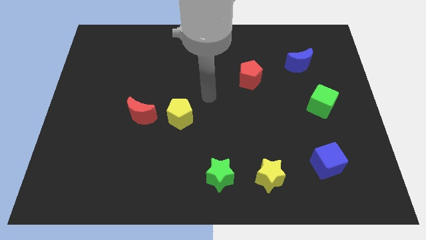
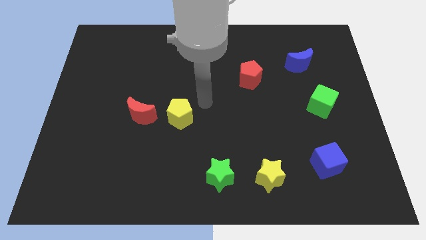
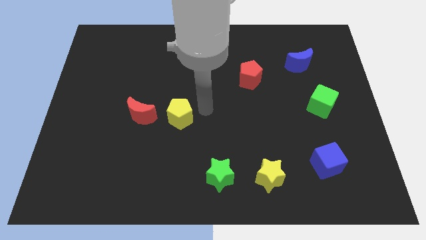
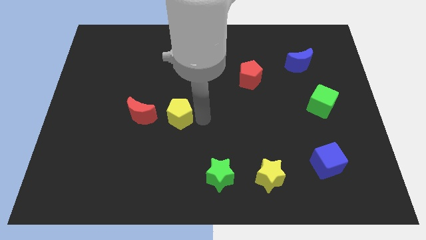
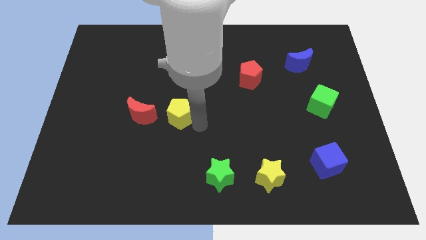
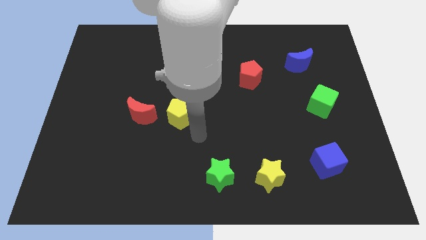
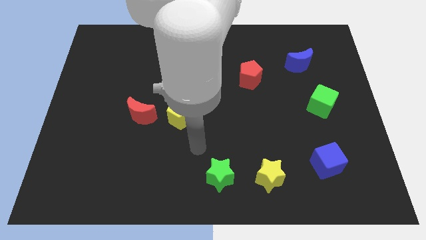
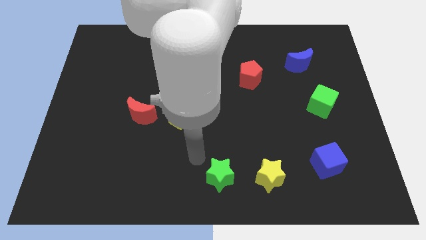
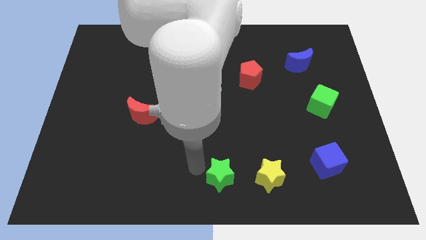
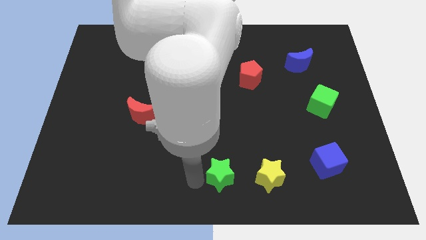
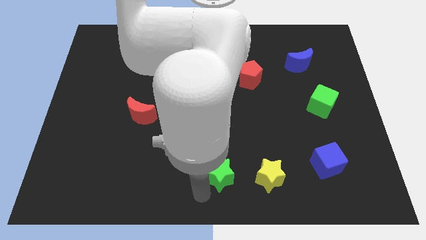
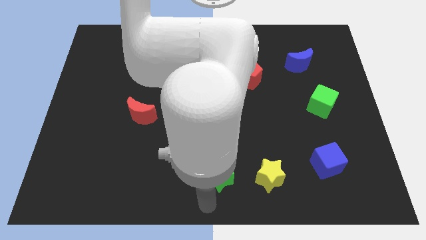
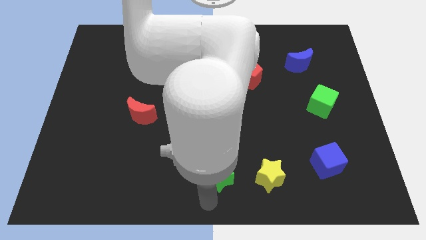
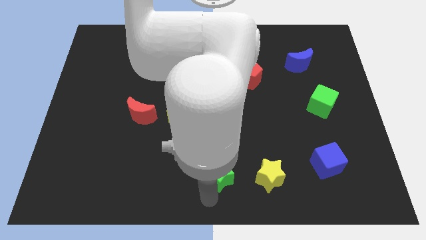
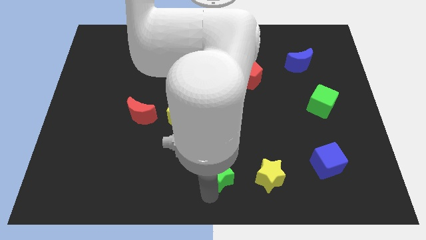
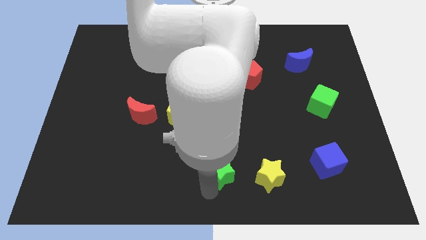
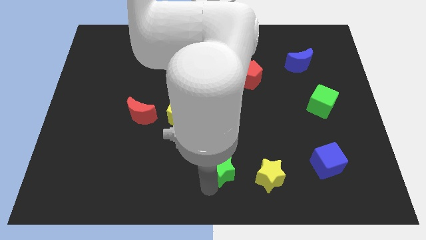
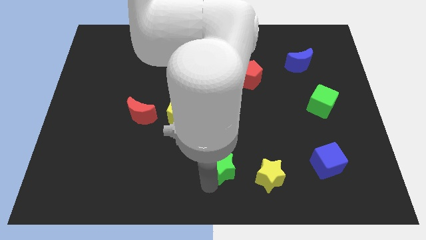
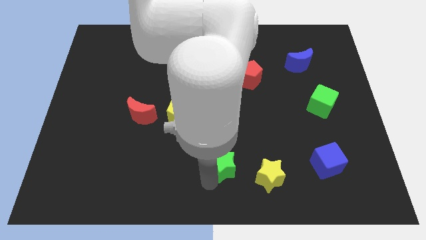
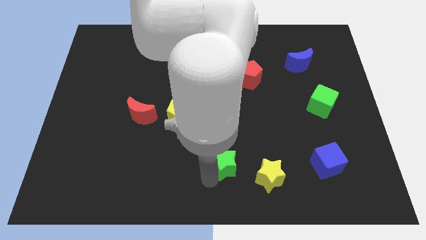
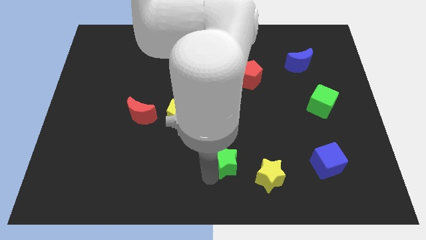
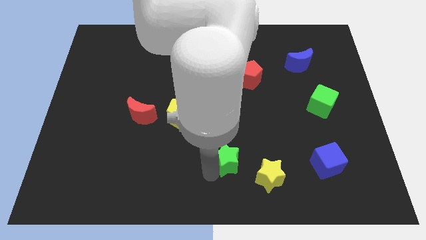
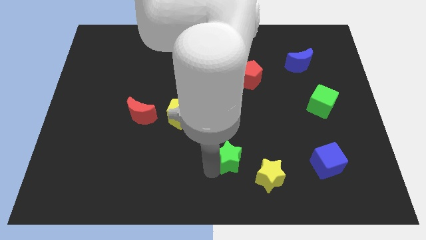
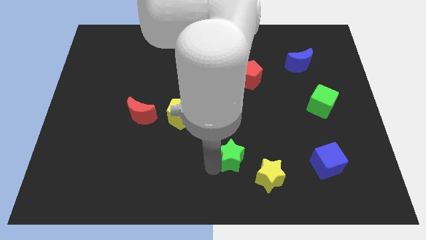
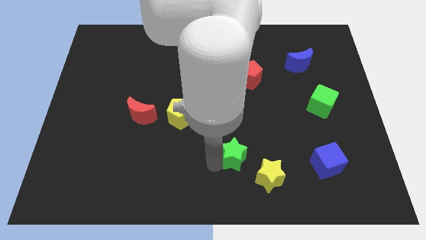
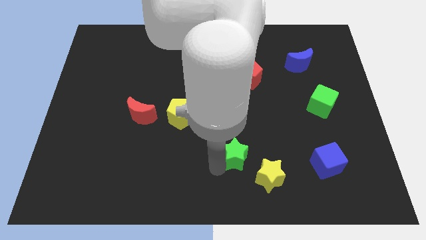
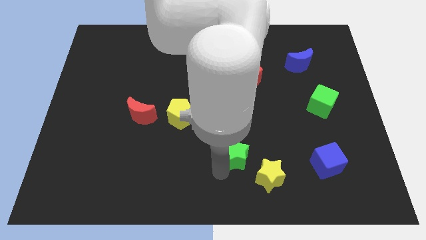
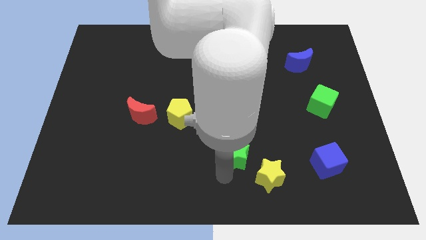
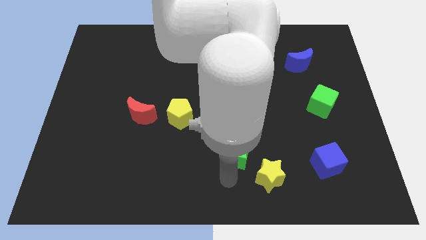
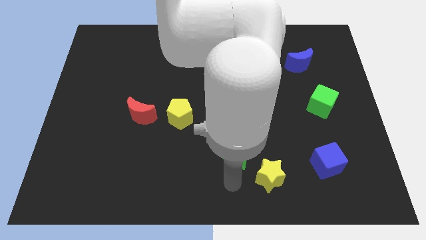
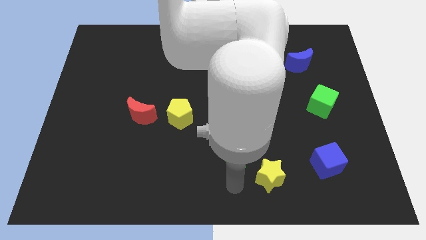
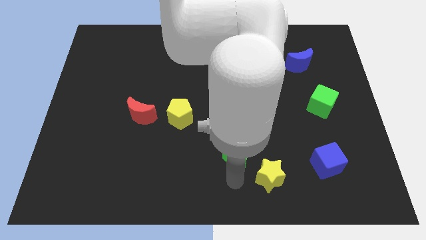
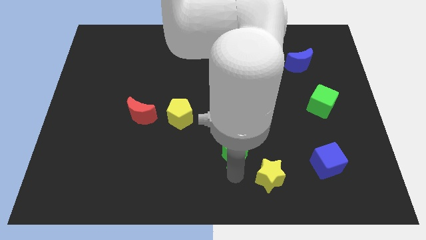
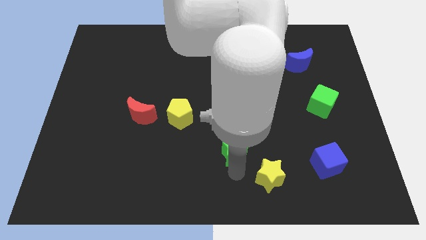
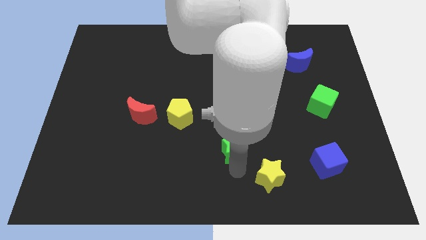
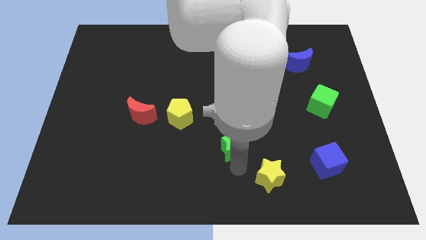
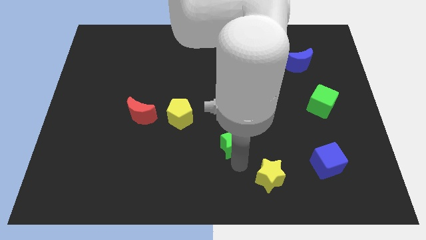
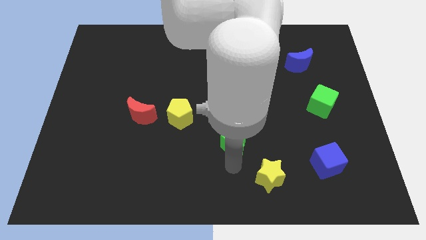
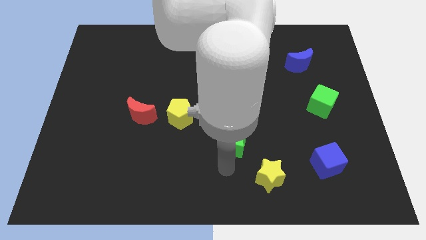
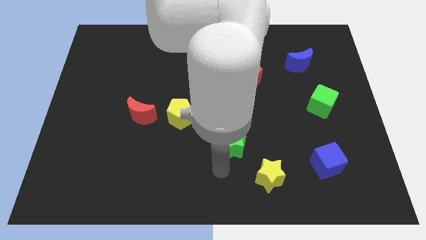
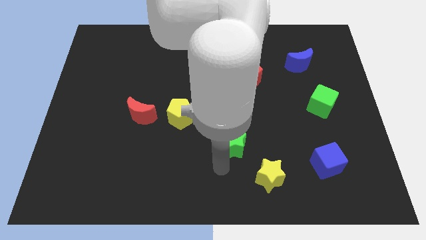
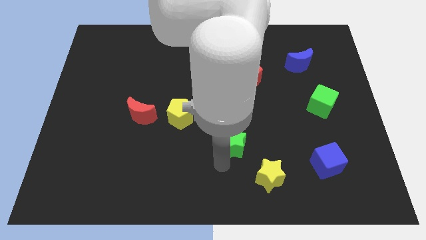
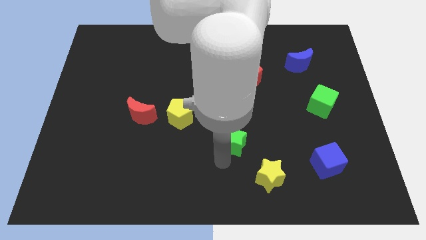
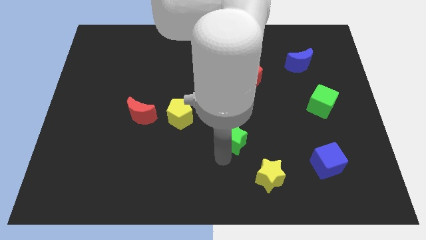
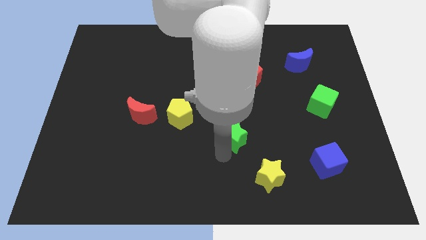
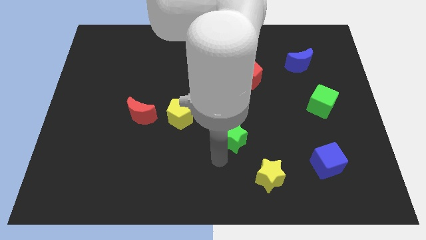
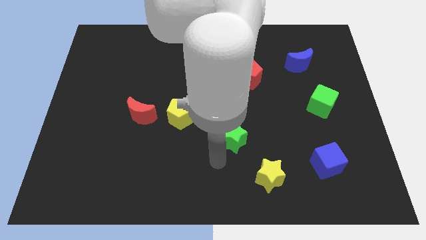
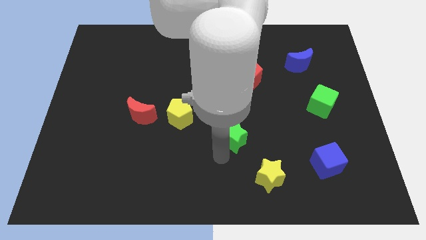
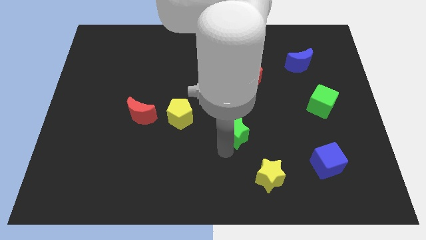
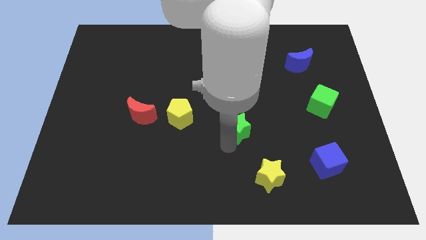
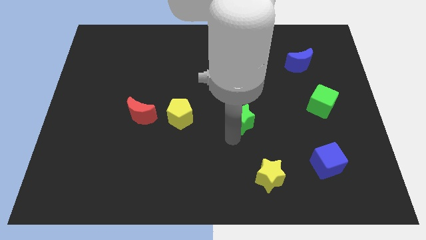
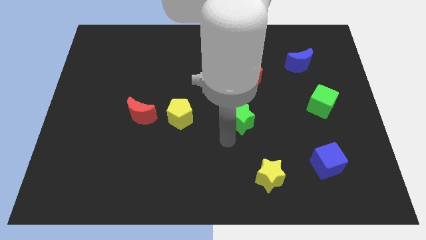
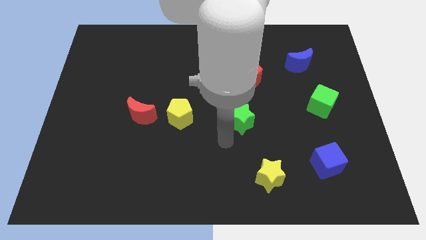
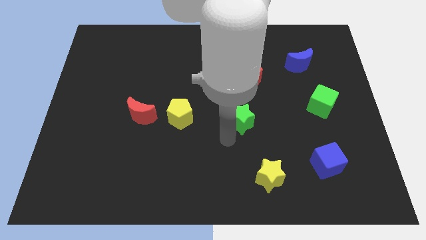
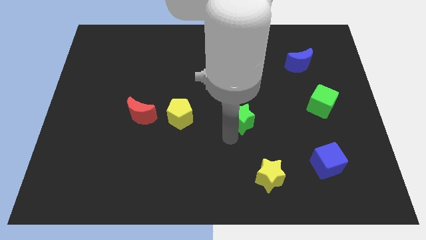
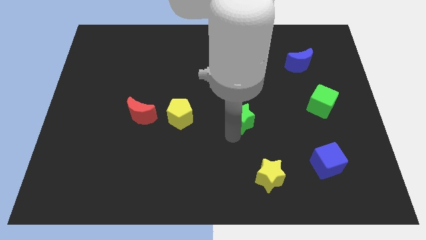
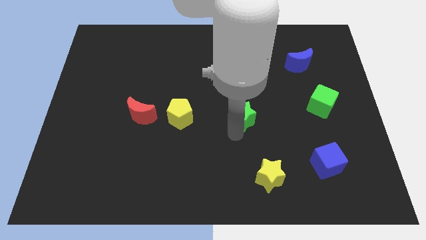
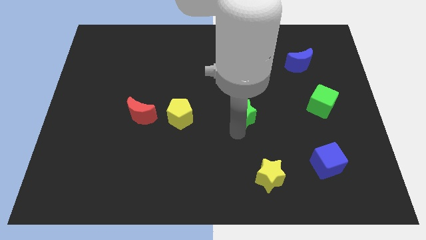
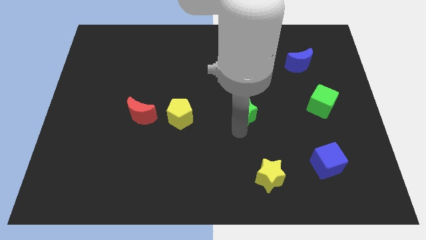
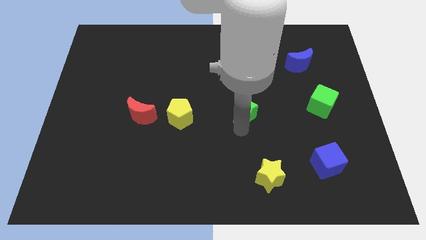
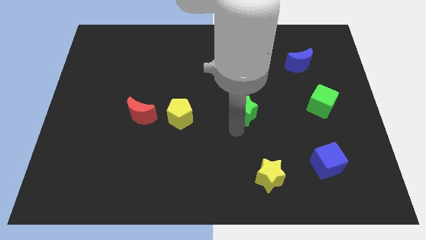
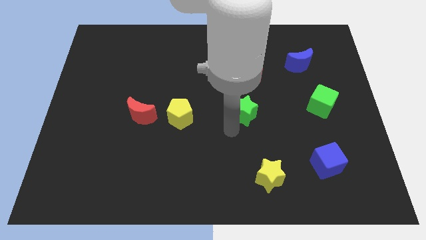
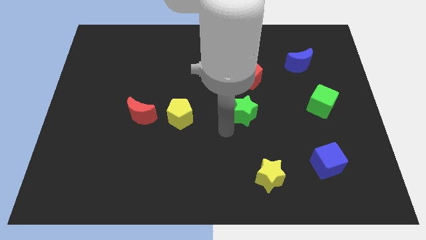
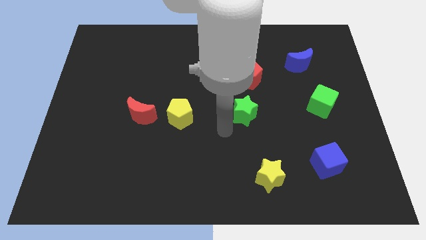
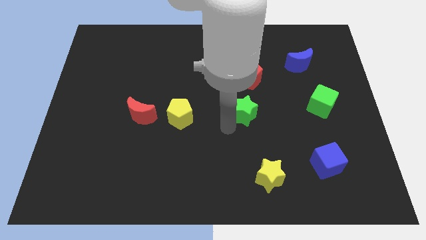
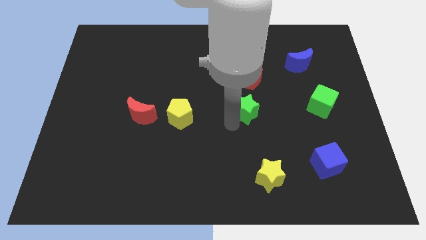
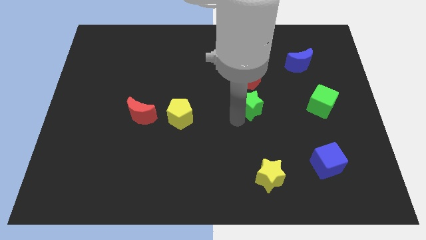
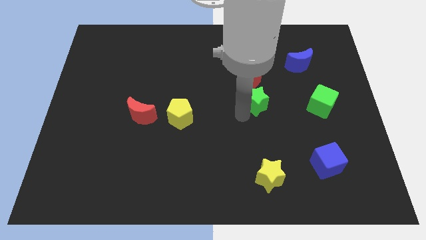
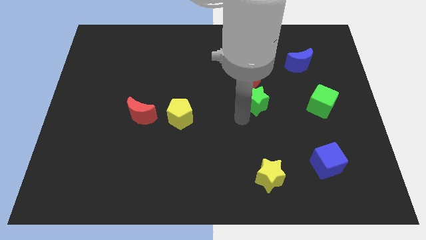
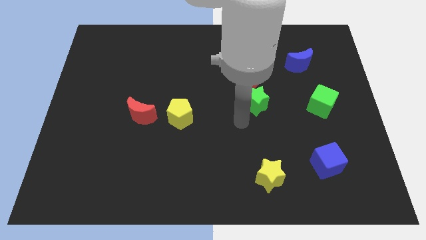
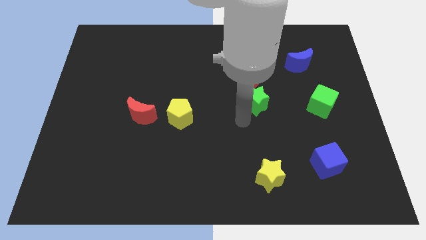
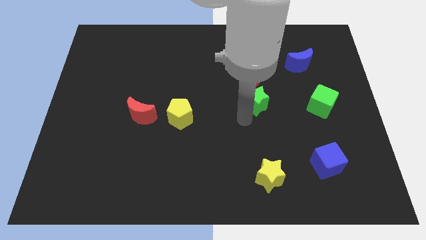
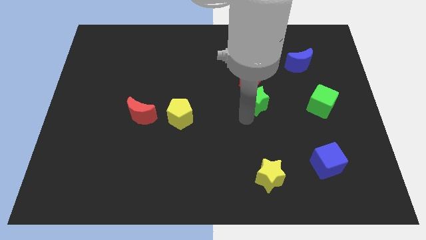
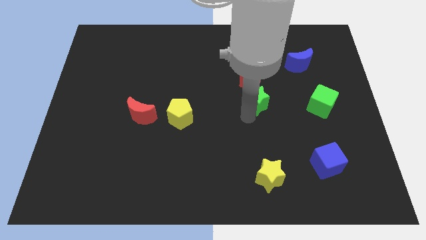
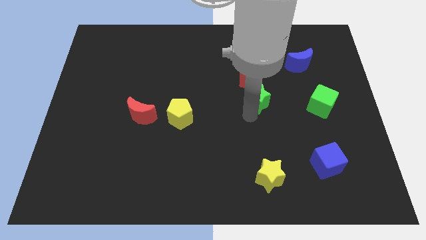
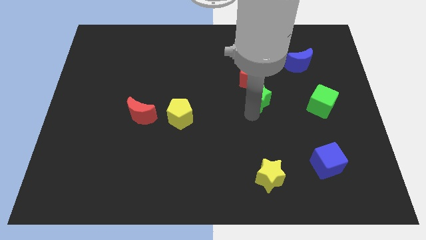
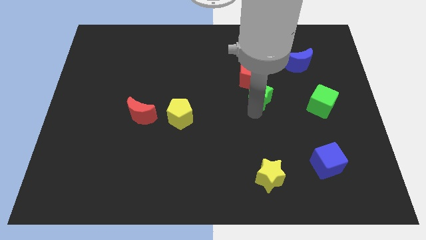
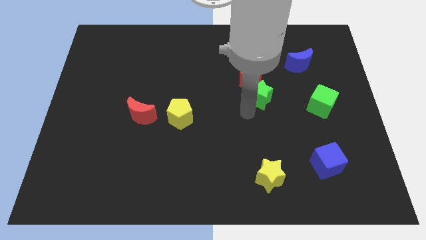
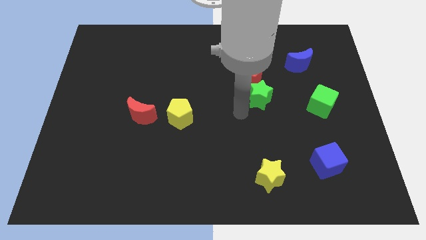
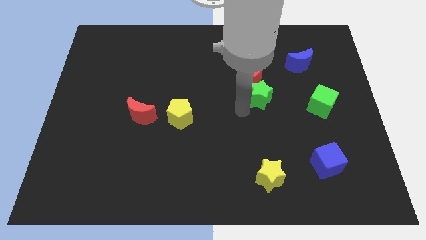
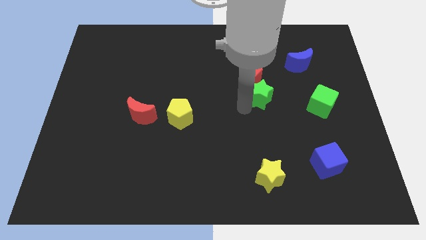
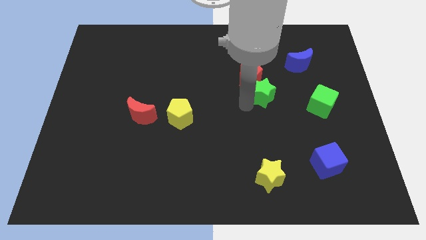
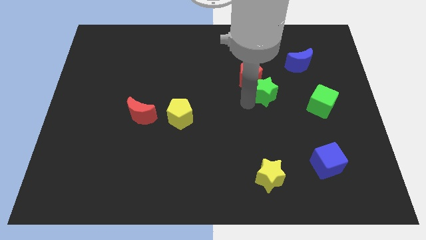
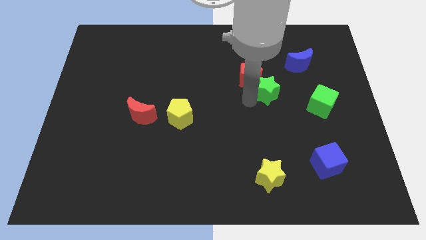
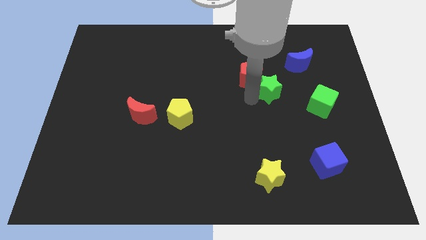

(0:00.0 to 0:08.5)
move the green star diagonally down and to the left of the blue moon
